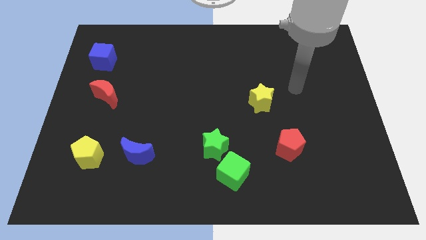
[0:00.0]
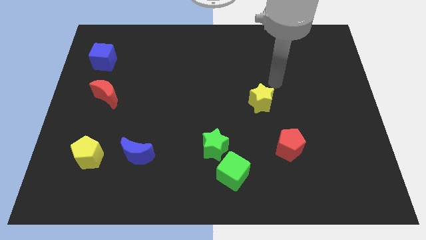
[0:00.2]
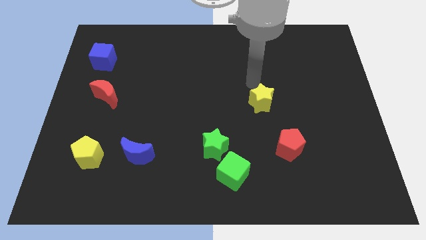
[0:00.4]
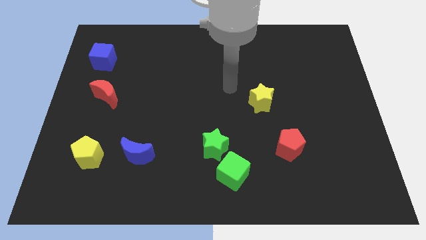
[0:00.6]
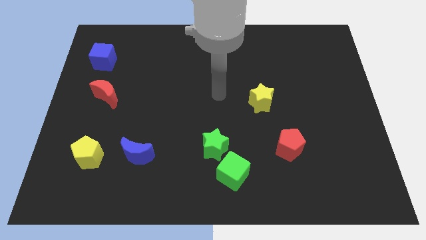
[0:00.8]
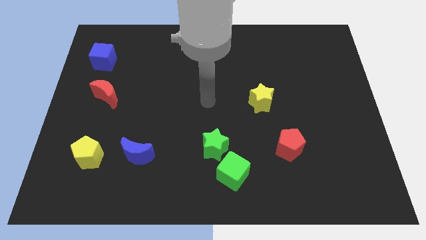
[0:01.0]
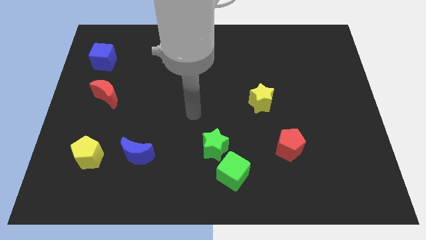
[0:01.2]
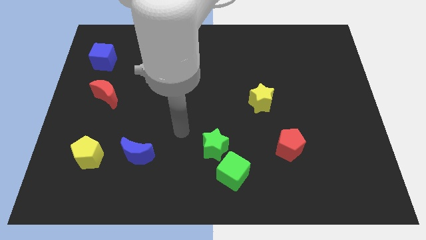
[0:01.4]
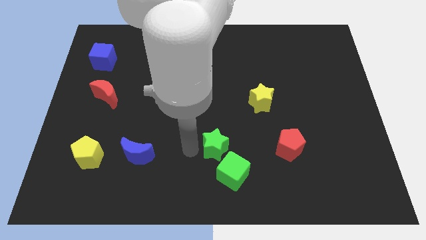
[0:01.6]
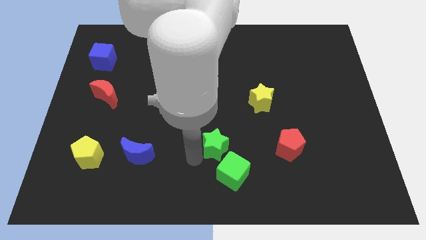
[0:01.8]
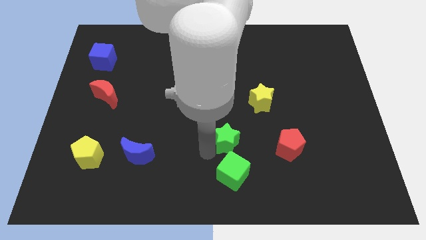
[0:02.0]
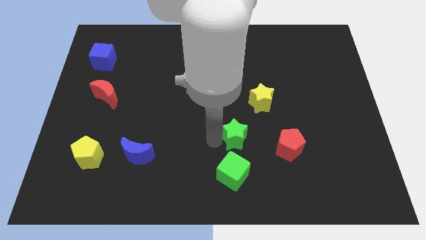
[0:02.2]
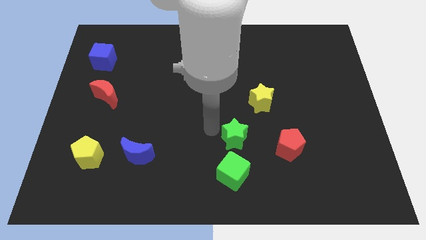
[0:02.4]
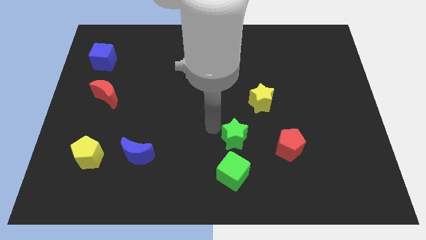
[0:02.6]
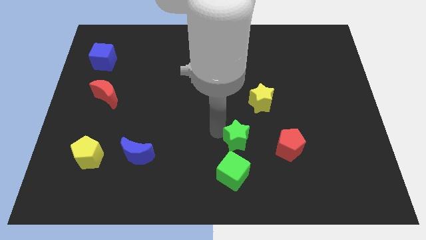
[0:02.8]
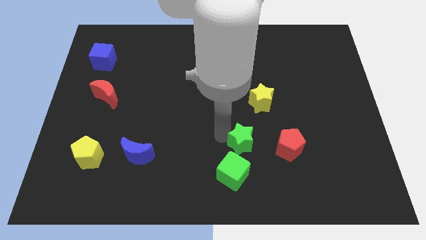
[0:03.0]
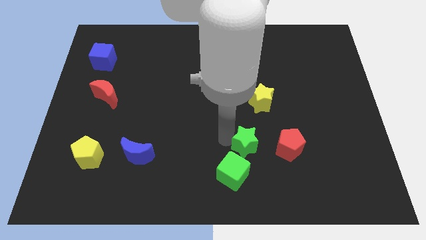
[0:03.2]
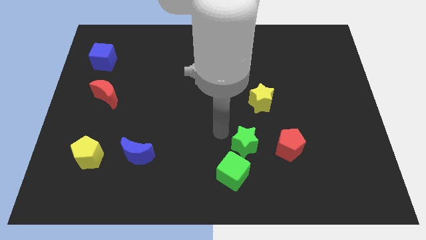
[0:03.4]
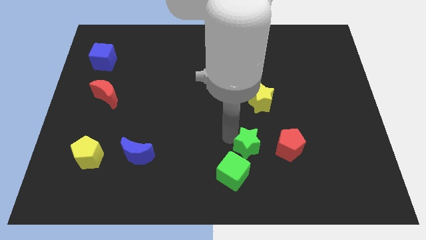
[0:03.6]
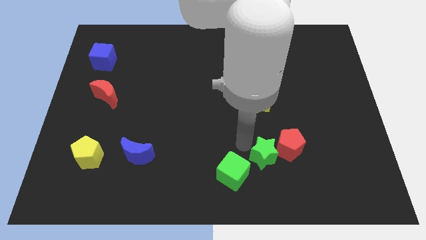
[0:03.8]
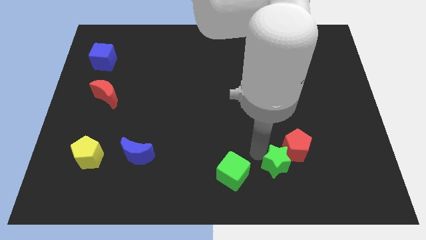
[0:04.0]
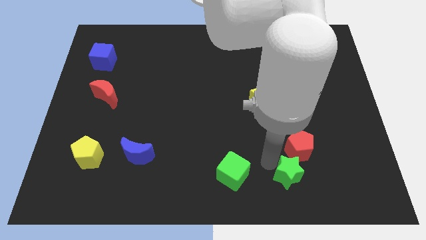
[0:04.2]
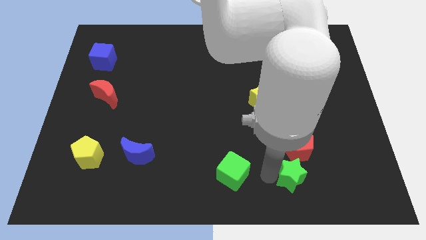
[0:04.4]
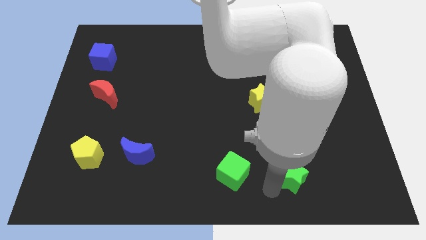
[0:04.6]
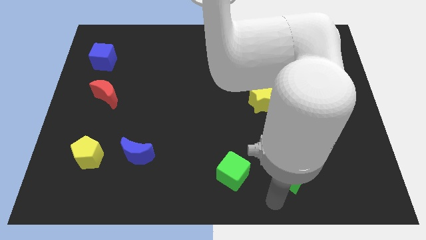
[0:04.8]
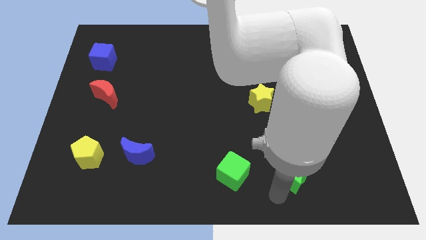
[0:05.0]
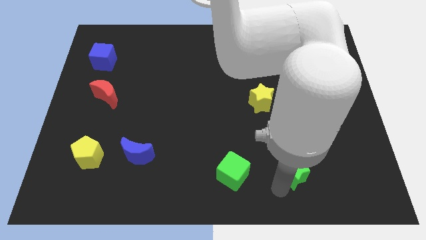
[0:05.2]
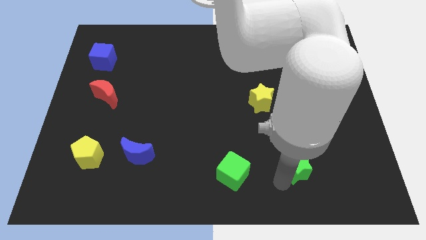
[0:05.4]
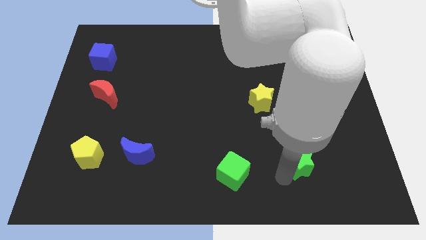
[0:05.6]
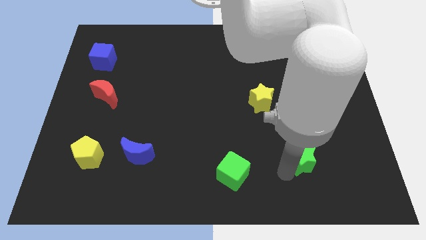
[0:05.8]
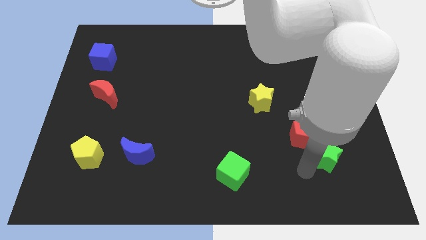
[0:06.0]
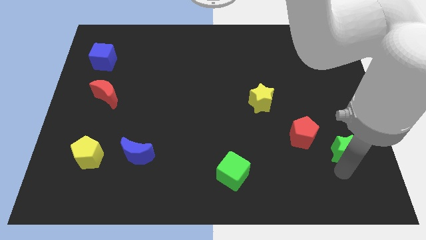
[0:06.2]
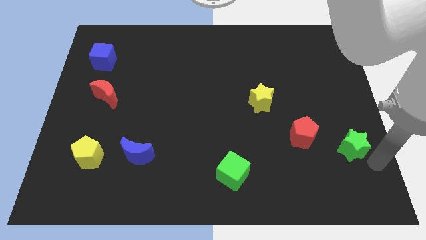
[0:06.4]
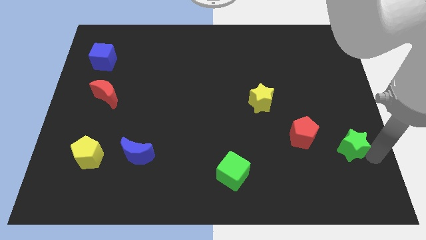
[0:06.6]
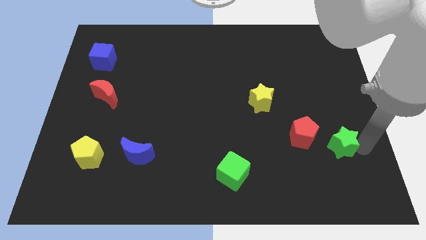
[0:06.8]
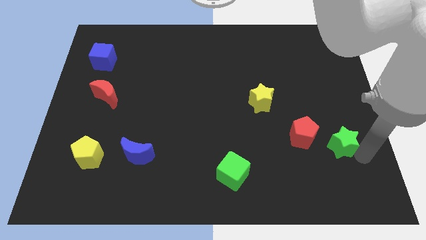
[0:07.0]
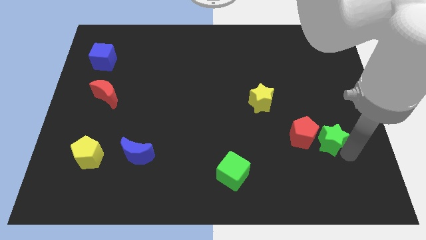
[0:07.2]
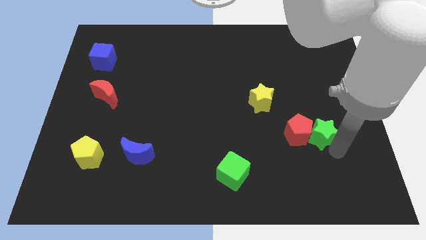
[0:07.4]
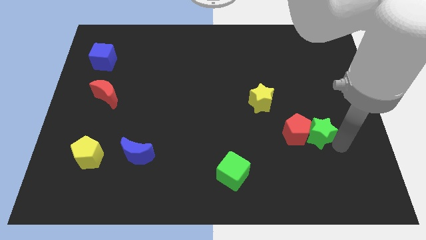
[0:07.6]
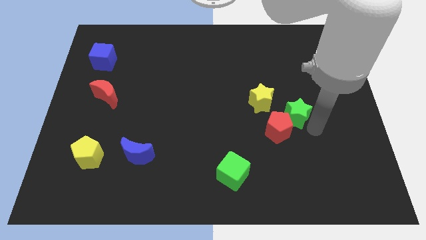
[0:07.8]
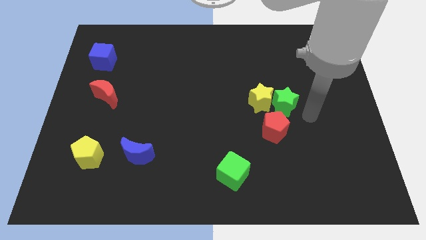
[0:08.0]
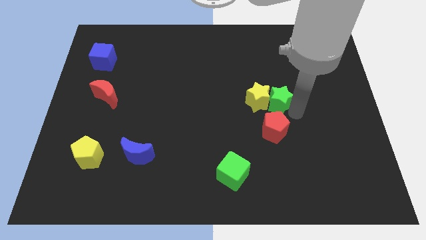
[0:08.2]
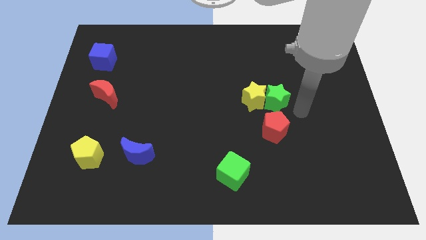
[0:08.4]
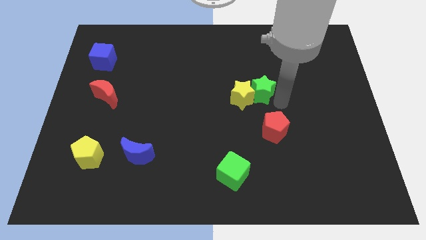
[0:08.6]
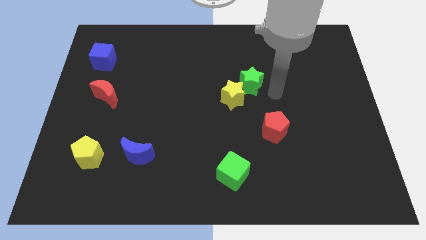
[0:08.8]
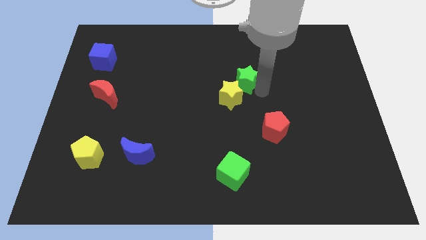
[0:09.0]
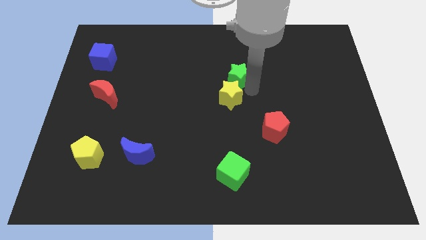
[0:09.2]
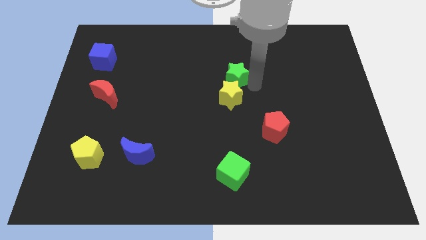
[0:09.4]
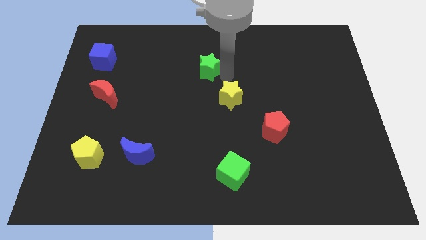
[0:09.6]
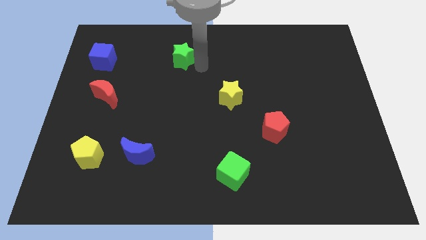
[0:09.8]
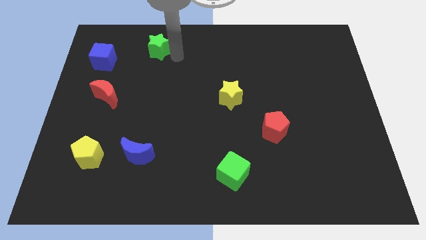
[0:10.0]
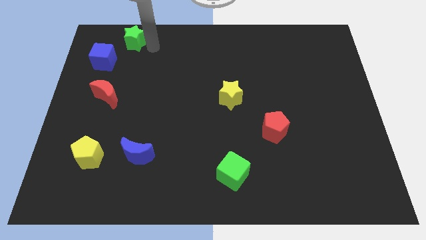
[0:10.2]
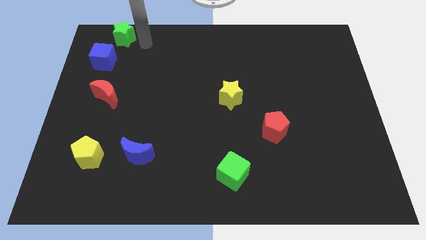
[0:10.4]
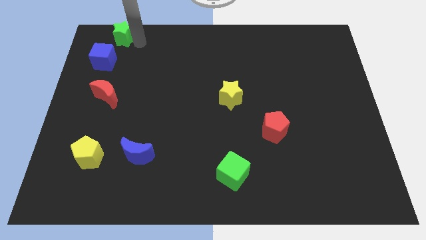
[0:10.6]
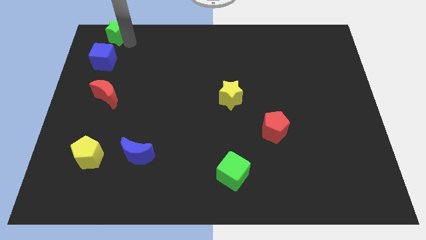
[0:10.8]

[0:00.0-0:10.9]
put the green star to the upper left corner
